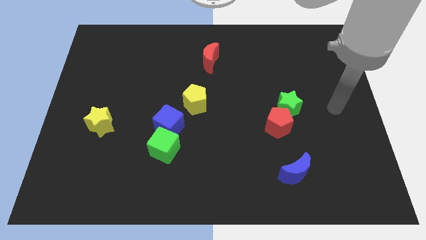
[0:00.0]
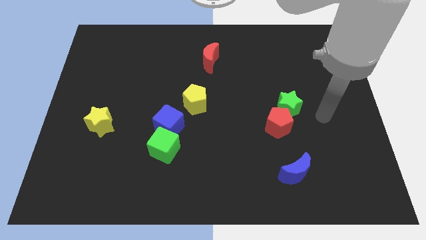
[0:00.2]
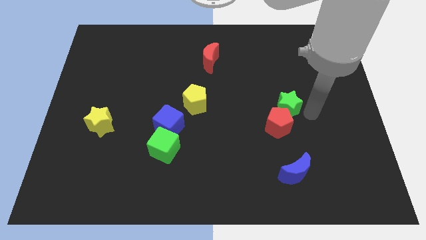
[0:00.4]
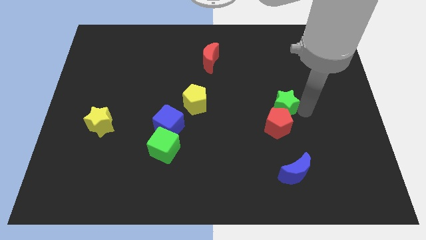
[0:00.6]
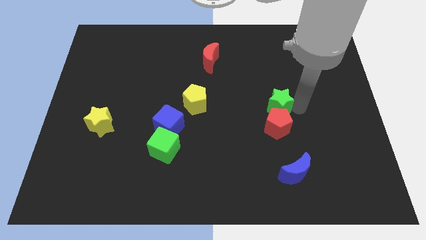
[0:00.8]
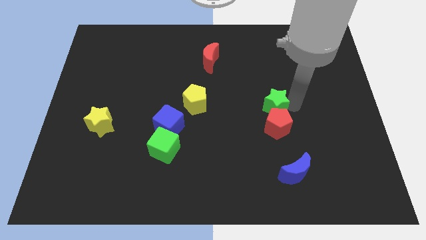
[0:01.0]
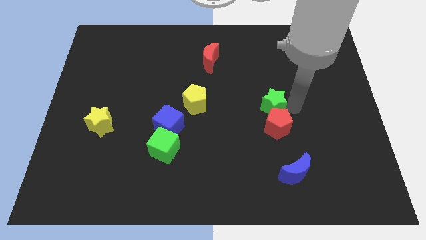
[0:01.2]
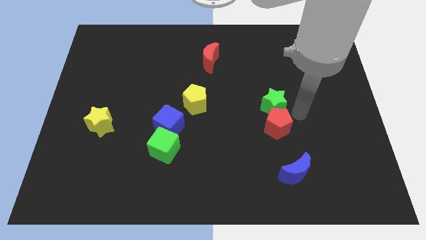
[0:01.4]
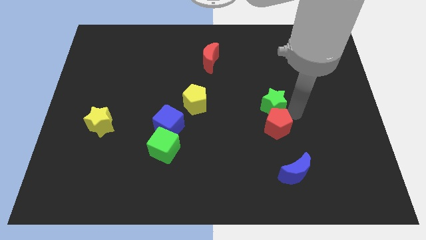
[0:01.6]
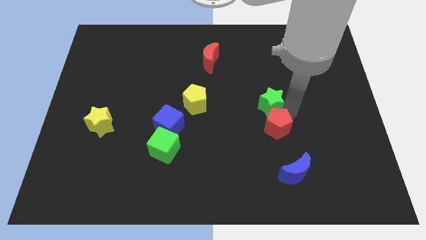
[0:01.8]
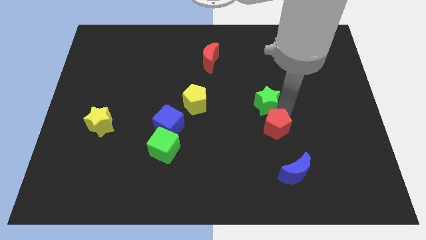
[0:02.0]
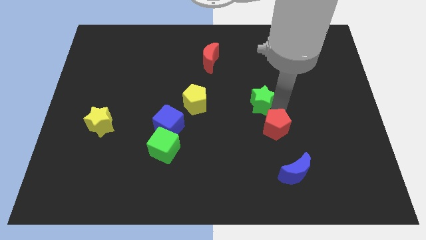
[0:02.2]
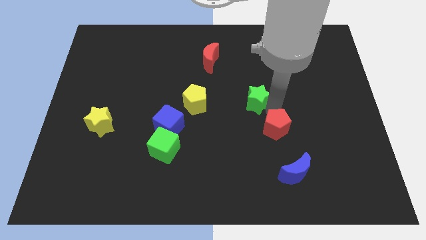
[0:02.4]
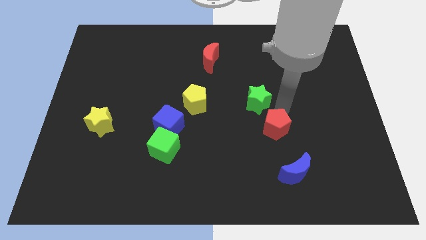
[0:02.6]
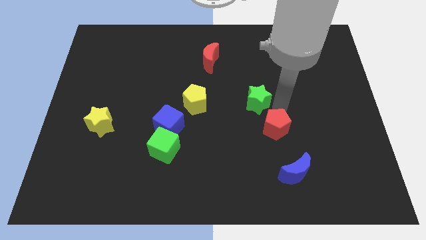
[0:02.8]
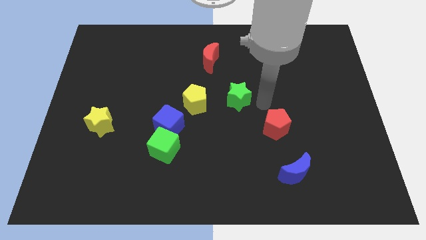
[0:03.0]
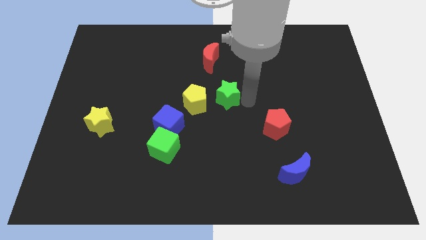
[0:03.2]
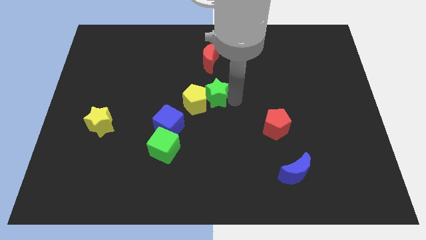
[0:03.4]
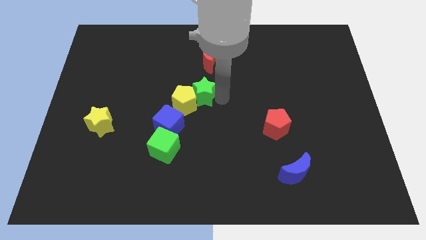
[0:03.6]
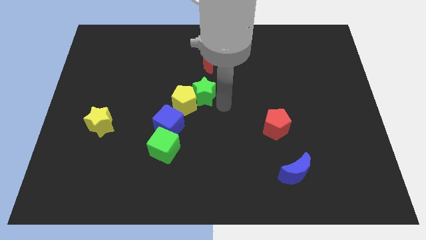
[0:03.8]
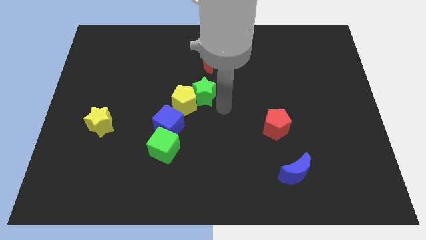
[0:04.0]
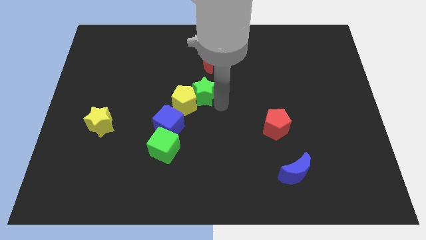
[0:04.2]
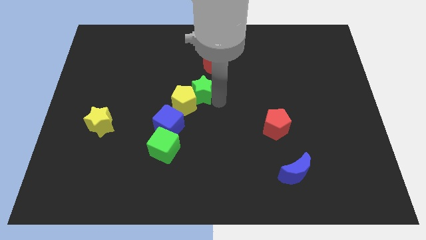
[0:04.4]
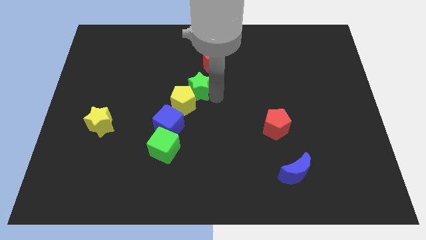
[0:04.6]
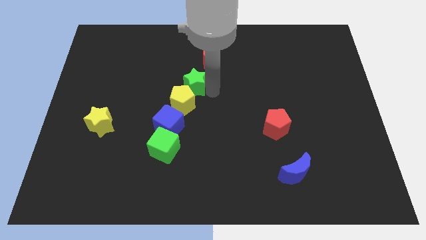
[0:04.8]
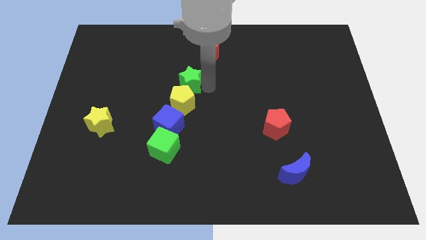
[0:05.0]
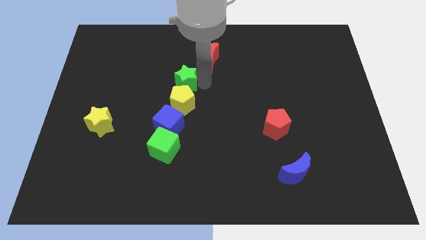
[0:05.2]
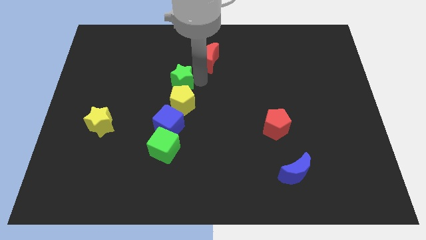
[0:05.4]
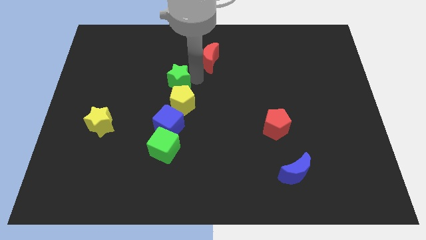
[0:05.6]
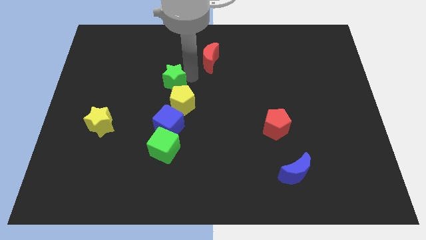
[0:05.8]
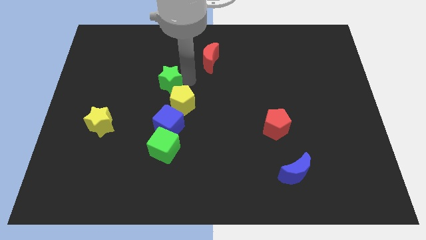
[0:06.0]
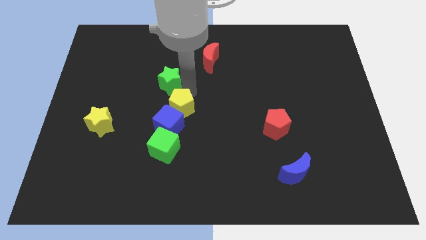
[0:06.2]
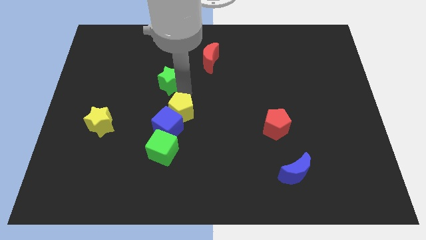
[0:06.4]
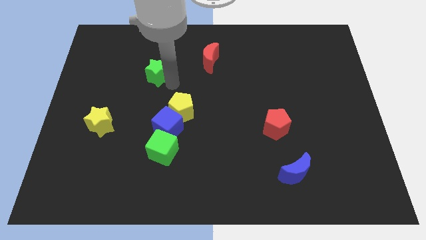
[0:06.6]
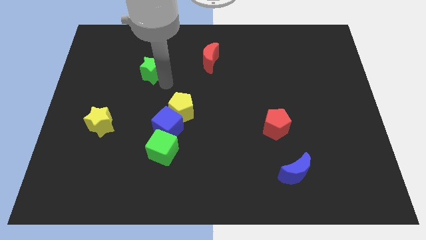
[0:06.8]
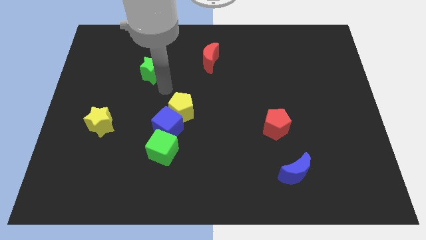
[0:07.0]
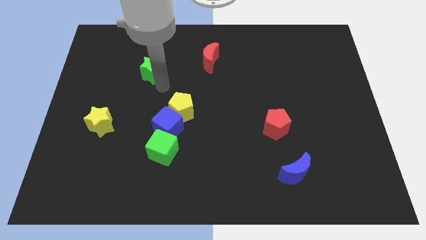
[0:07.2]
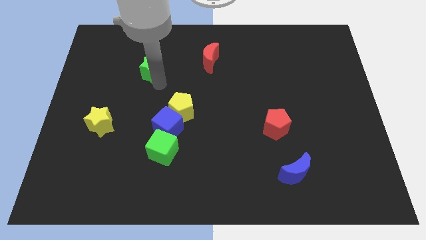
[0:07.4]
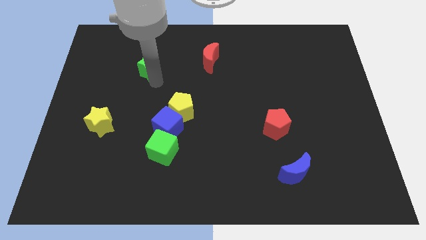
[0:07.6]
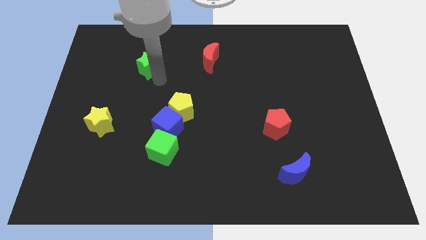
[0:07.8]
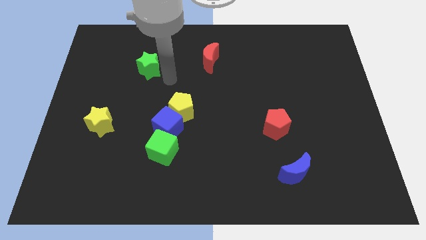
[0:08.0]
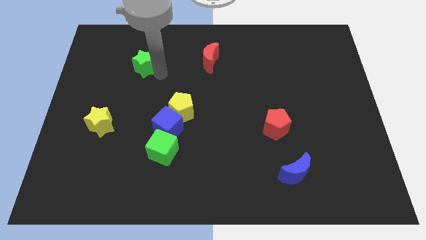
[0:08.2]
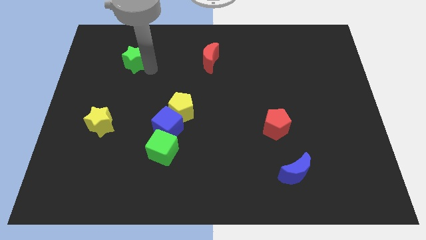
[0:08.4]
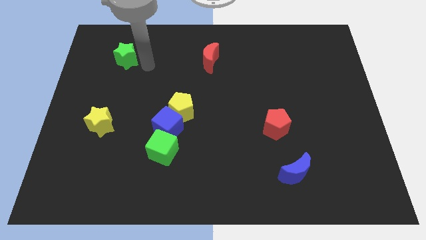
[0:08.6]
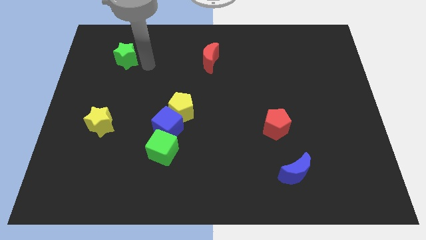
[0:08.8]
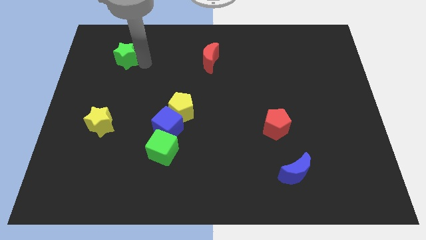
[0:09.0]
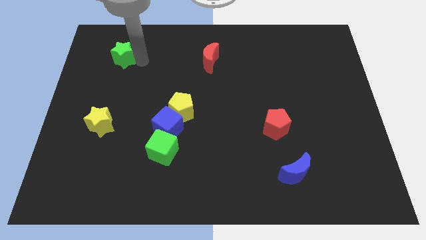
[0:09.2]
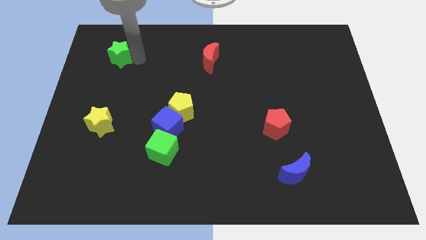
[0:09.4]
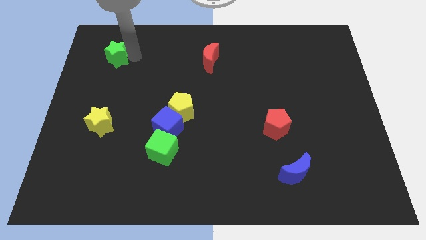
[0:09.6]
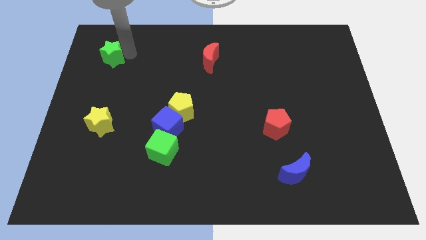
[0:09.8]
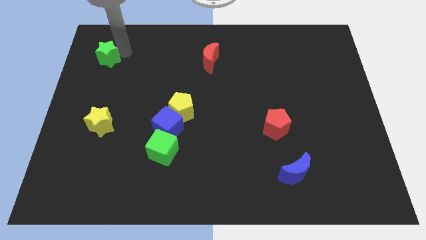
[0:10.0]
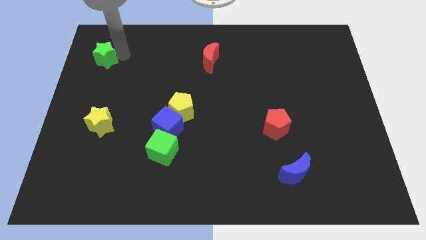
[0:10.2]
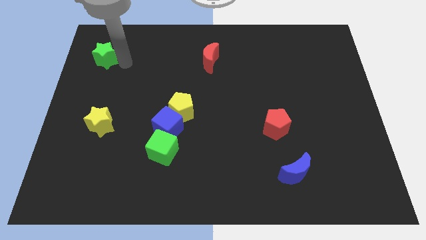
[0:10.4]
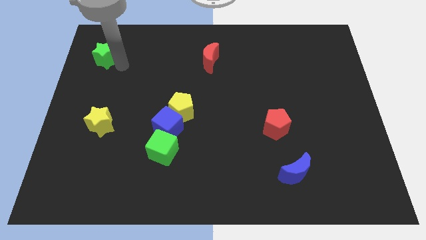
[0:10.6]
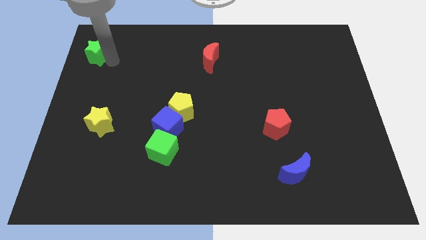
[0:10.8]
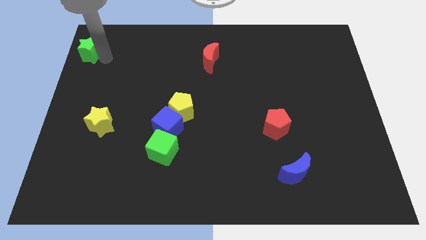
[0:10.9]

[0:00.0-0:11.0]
move the green star to the top left
